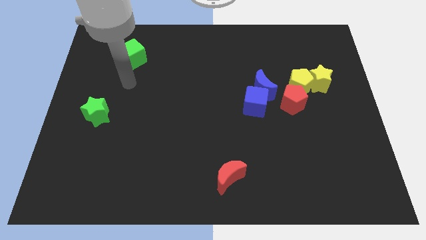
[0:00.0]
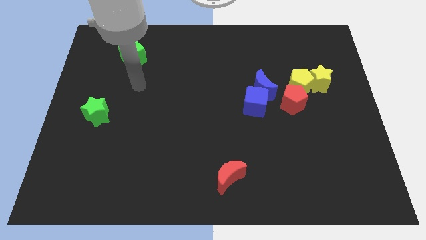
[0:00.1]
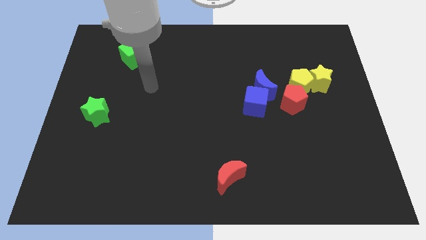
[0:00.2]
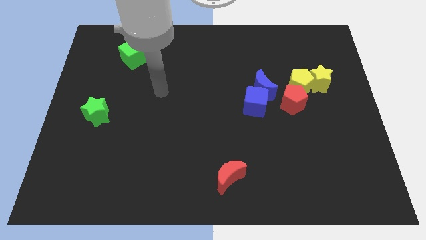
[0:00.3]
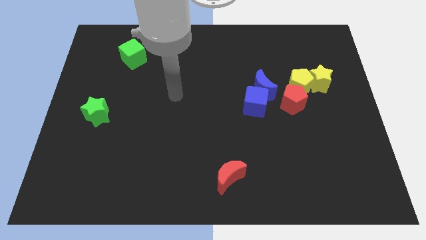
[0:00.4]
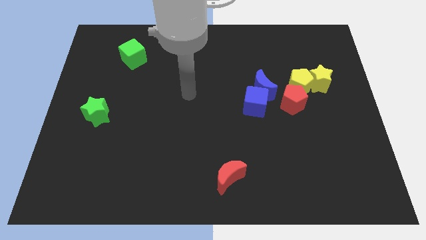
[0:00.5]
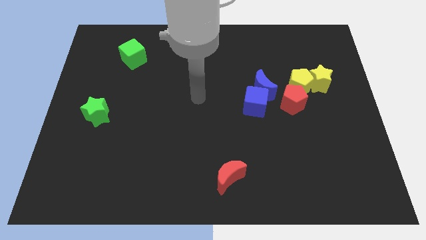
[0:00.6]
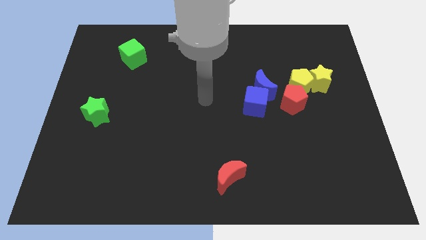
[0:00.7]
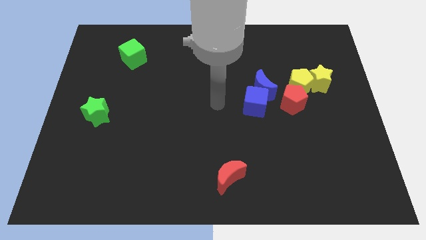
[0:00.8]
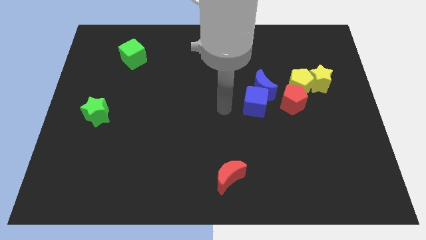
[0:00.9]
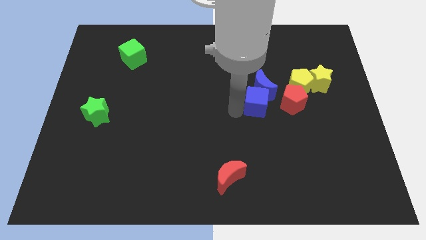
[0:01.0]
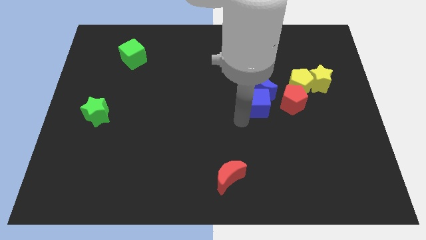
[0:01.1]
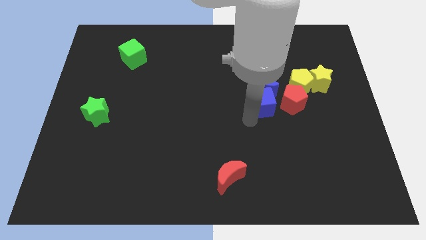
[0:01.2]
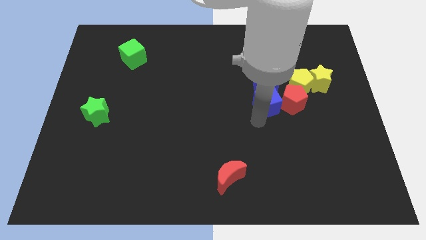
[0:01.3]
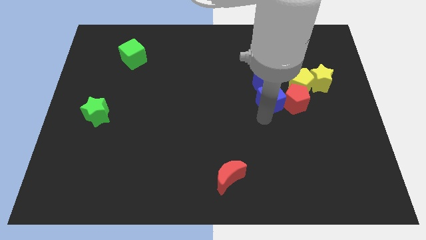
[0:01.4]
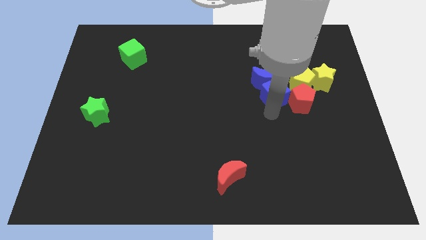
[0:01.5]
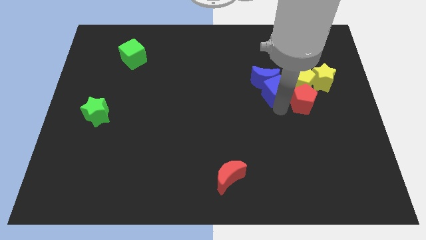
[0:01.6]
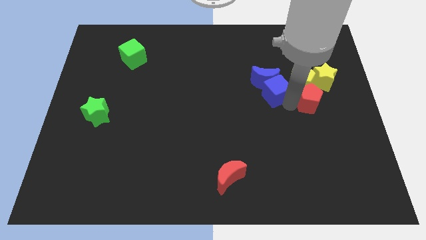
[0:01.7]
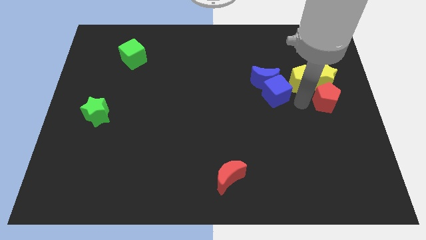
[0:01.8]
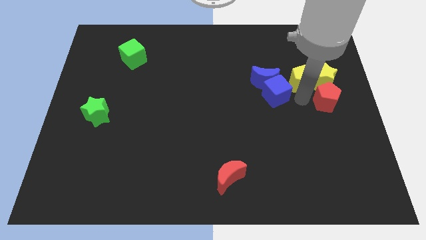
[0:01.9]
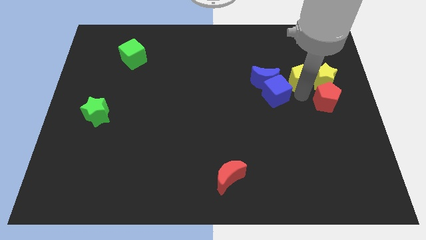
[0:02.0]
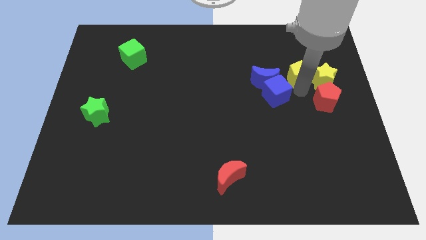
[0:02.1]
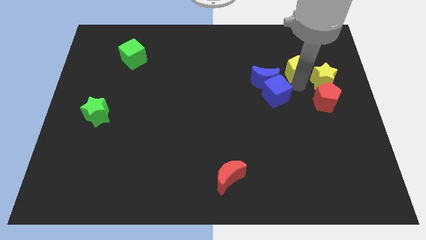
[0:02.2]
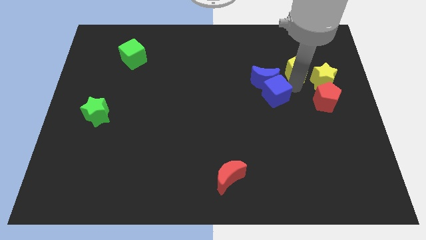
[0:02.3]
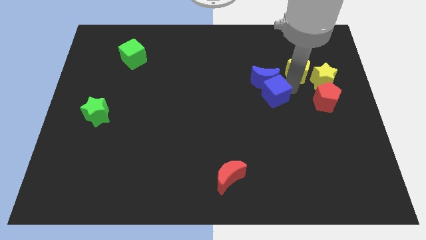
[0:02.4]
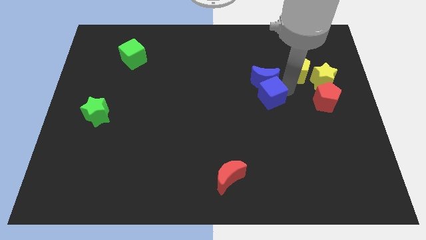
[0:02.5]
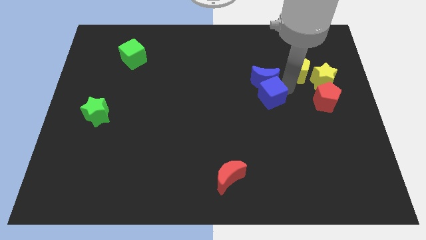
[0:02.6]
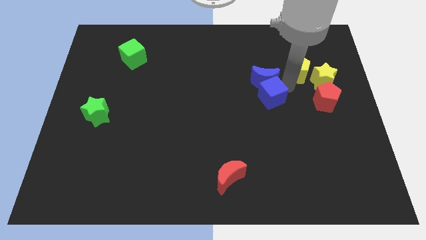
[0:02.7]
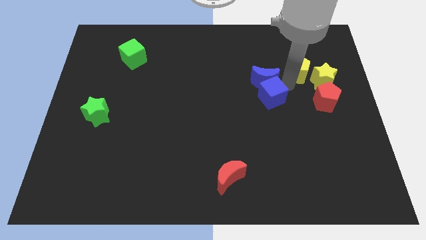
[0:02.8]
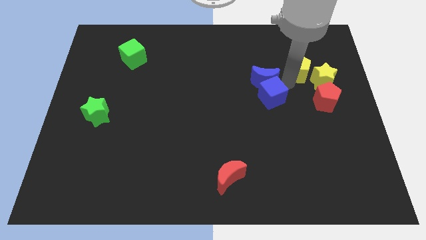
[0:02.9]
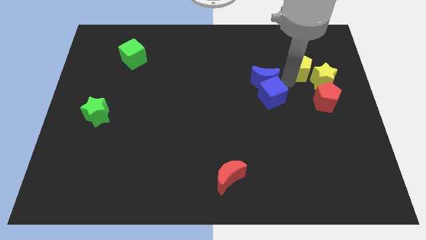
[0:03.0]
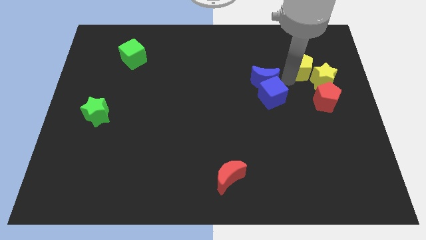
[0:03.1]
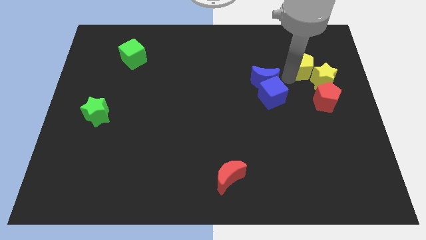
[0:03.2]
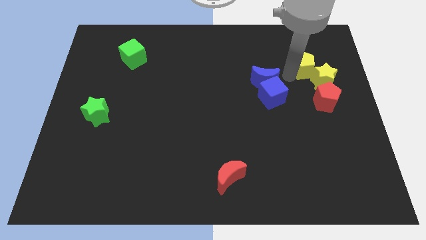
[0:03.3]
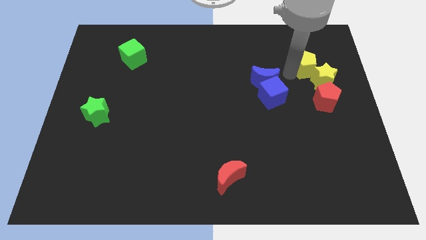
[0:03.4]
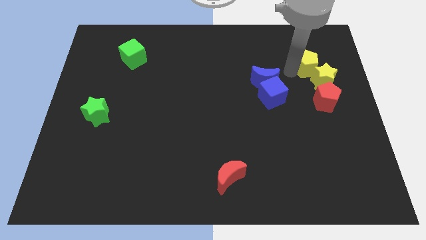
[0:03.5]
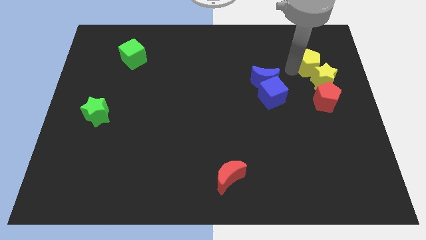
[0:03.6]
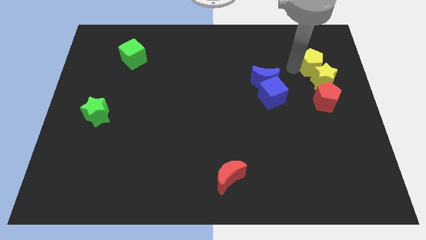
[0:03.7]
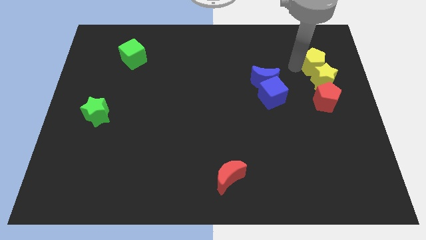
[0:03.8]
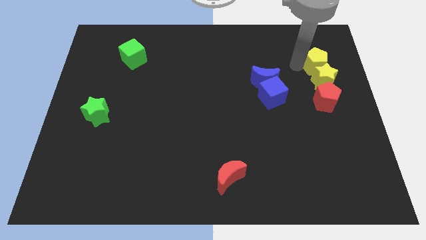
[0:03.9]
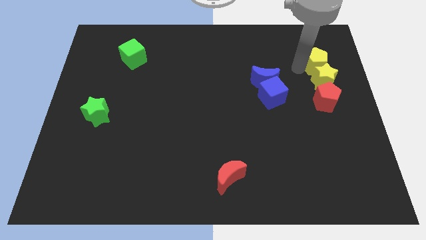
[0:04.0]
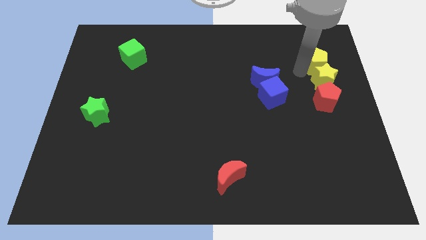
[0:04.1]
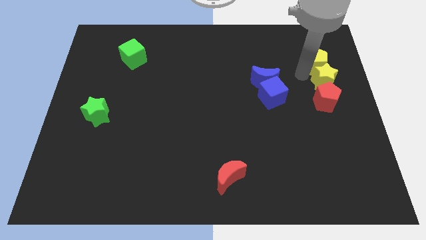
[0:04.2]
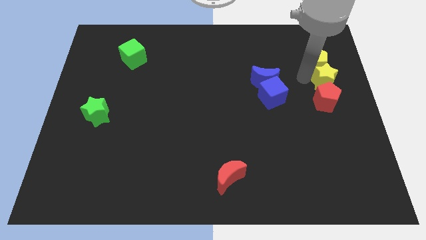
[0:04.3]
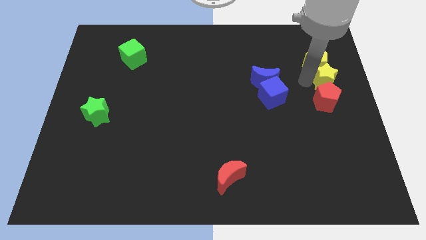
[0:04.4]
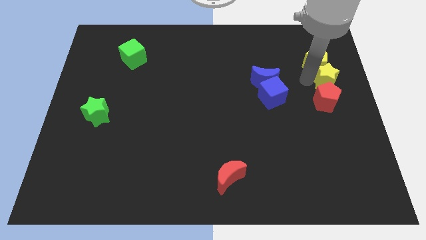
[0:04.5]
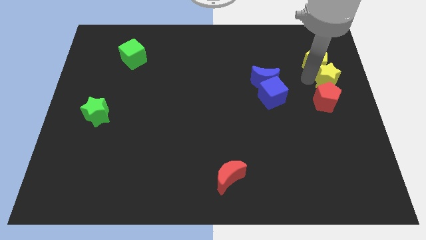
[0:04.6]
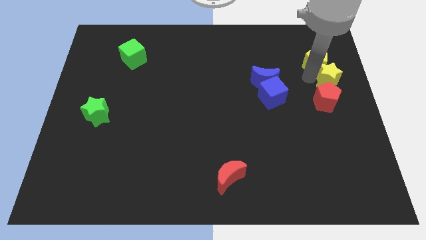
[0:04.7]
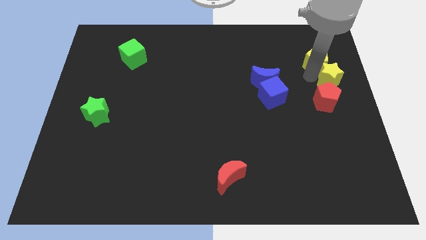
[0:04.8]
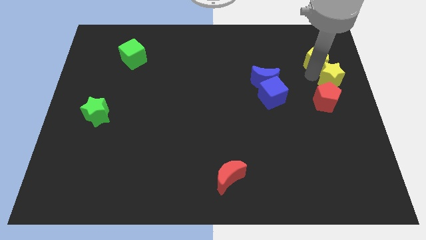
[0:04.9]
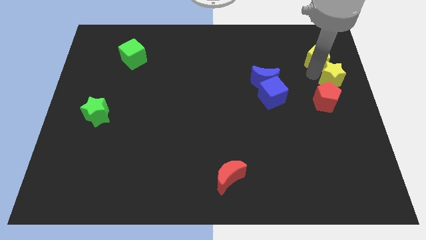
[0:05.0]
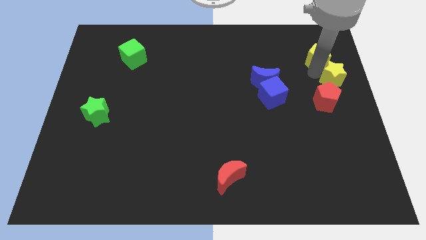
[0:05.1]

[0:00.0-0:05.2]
separate the yellow pentagon from the group

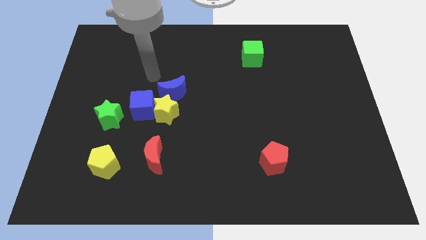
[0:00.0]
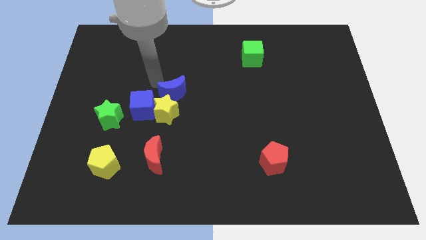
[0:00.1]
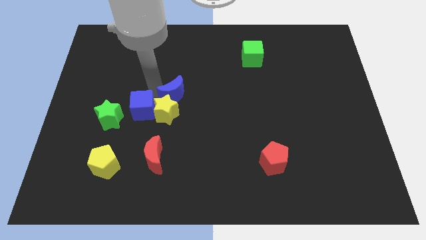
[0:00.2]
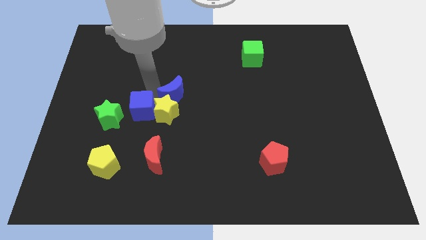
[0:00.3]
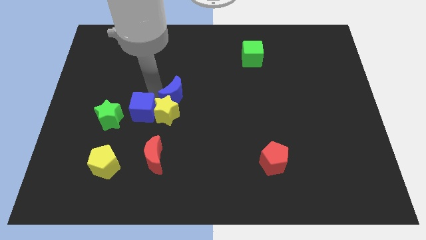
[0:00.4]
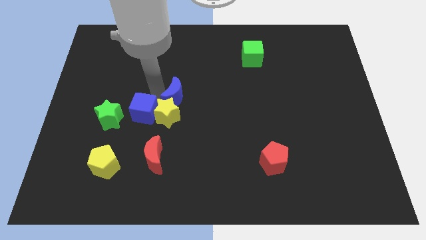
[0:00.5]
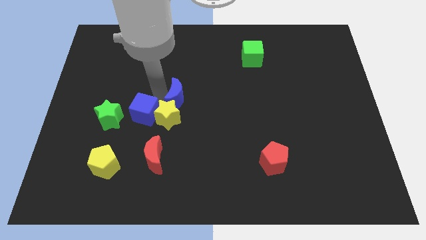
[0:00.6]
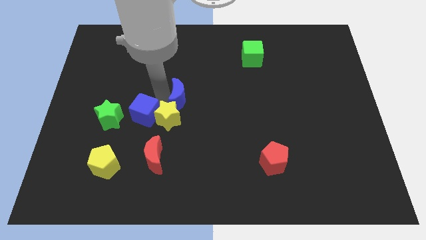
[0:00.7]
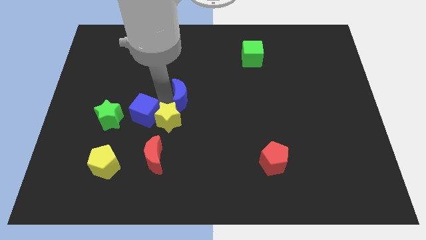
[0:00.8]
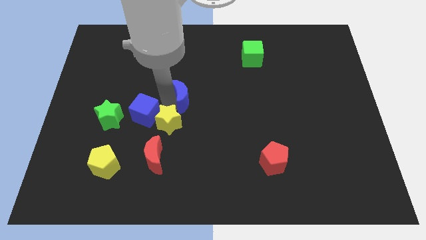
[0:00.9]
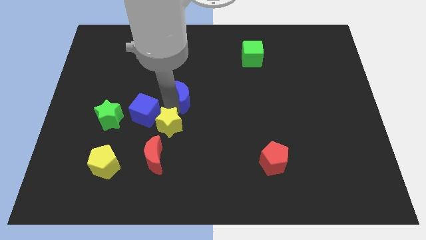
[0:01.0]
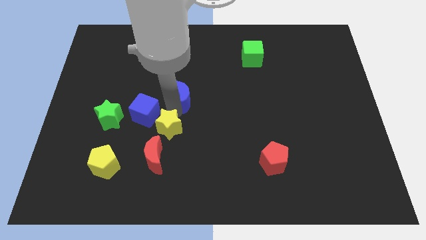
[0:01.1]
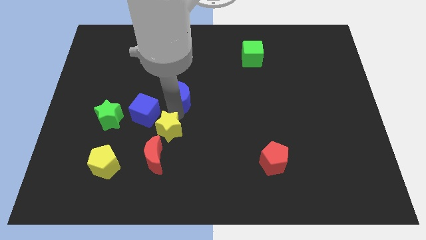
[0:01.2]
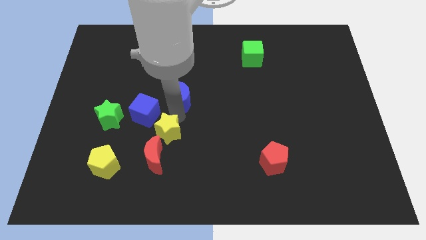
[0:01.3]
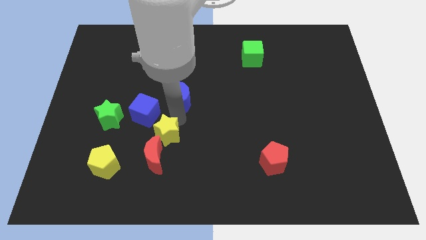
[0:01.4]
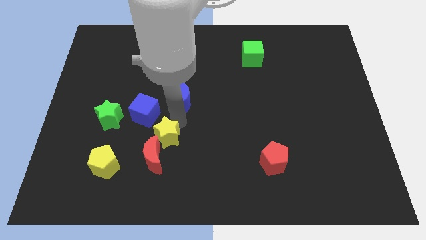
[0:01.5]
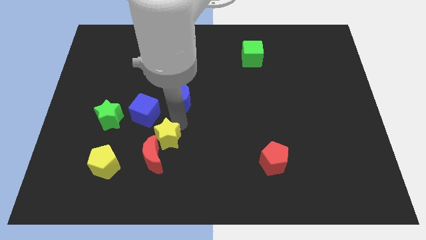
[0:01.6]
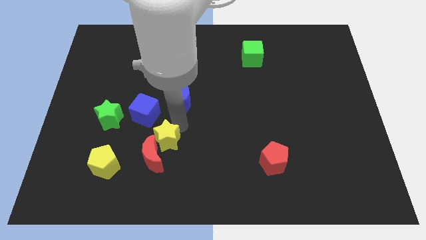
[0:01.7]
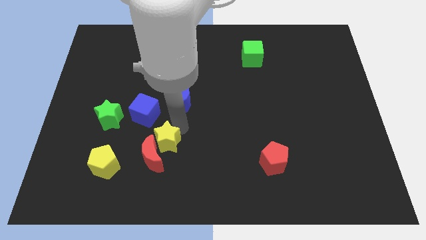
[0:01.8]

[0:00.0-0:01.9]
move the yellow star away from the blue cube and blue moon

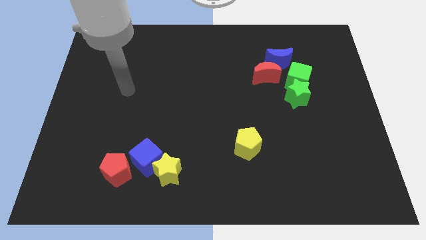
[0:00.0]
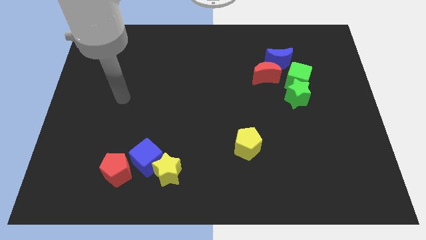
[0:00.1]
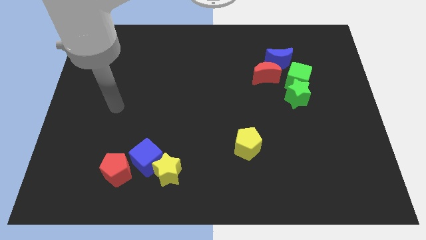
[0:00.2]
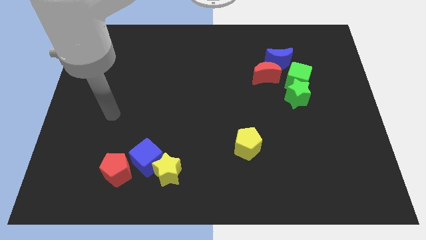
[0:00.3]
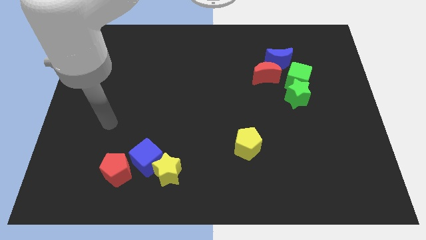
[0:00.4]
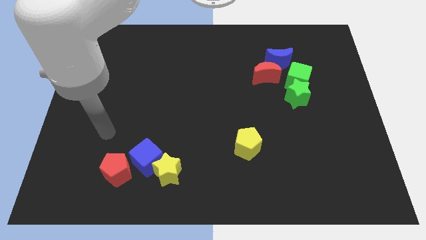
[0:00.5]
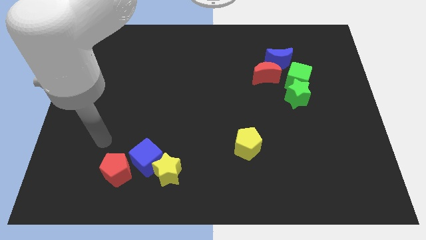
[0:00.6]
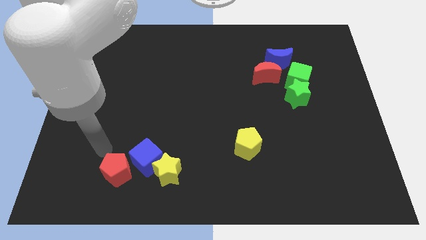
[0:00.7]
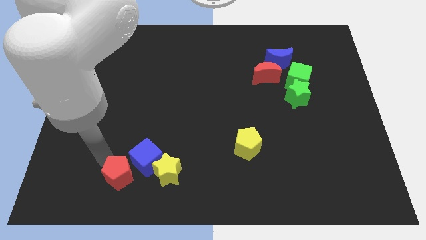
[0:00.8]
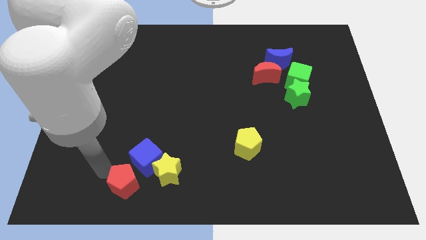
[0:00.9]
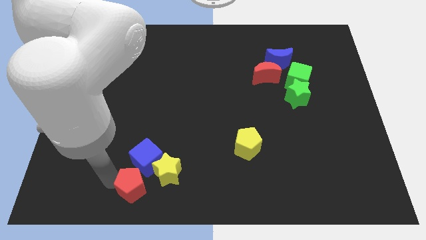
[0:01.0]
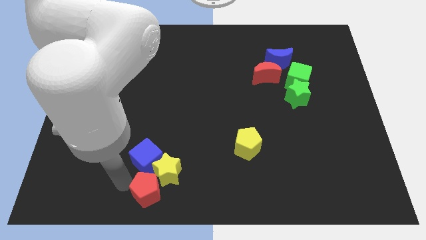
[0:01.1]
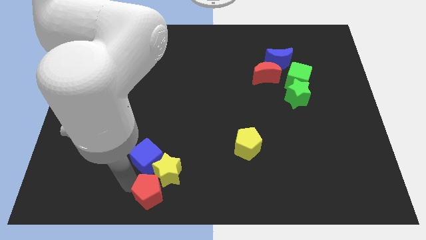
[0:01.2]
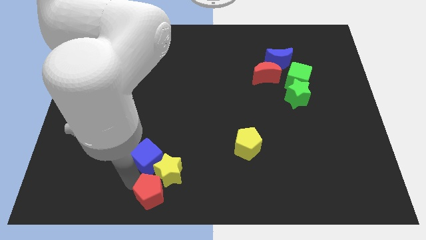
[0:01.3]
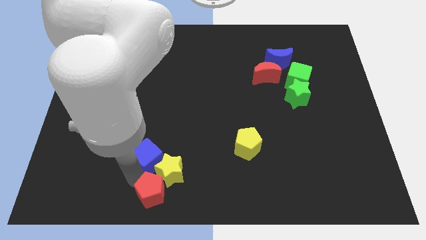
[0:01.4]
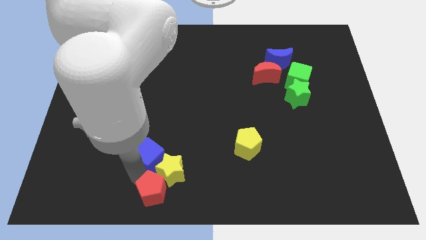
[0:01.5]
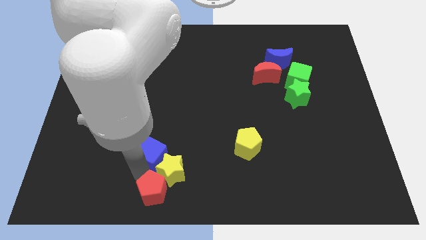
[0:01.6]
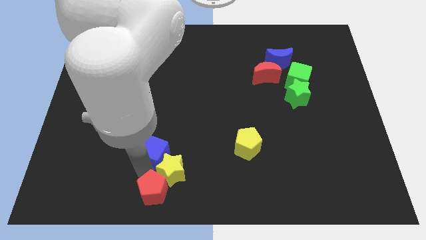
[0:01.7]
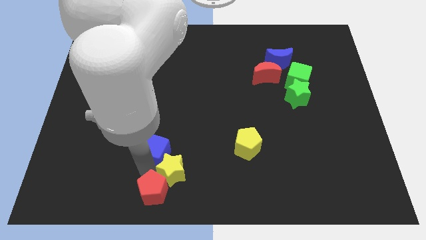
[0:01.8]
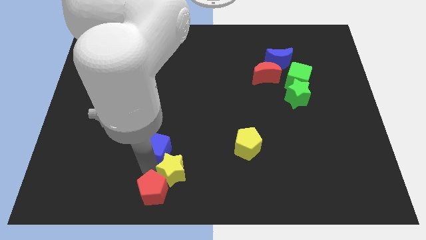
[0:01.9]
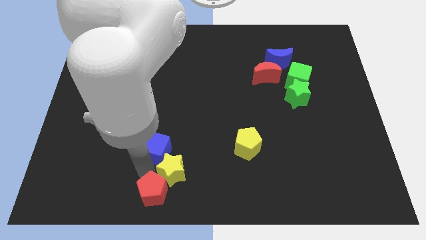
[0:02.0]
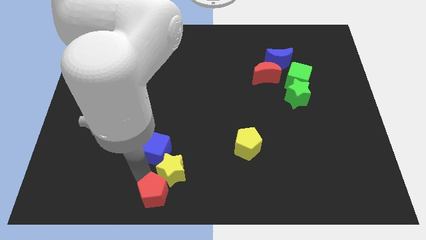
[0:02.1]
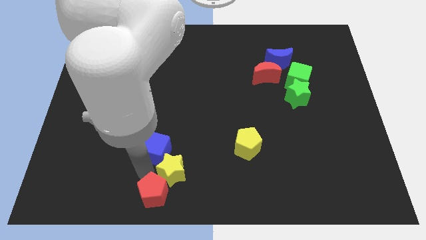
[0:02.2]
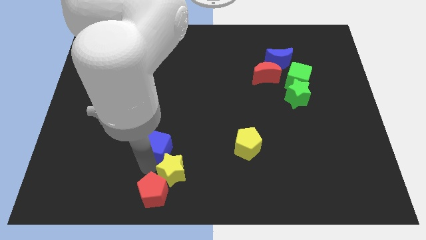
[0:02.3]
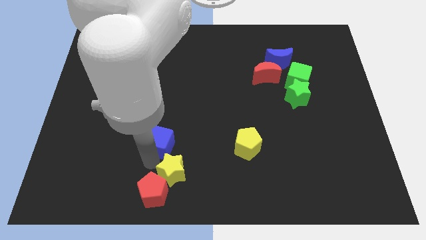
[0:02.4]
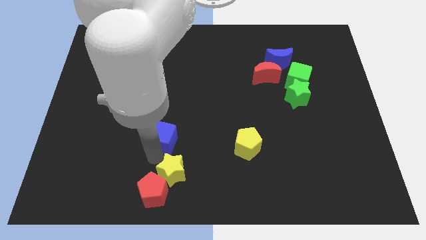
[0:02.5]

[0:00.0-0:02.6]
separate the blue cube from the yellow star and red pentagon
